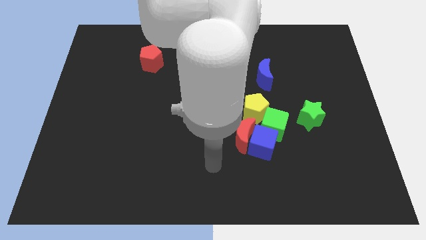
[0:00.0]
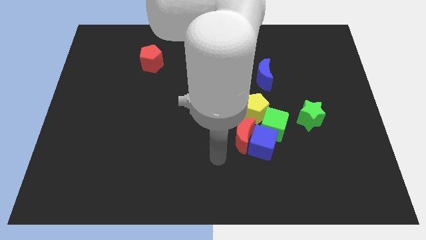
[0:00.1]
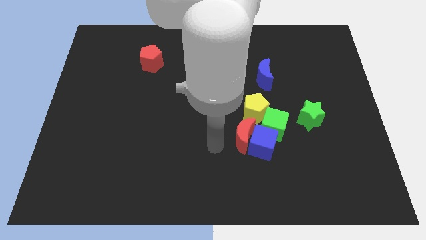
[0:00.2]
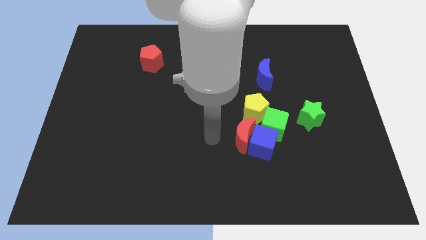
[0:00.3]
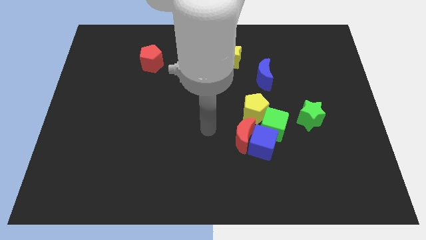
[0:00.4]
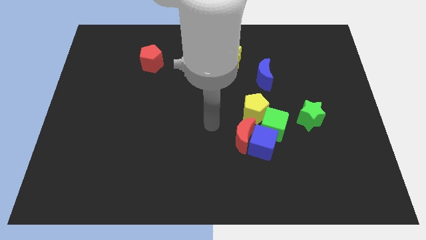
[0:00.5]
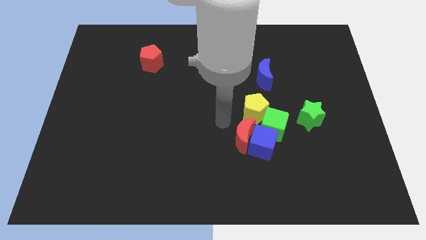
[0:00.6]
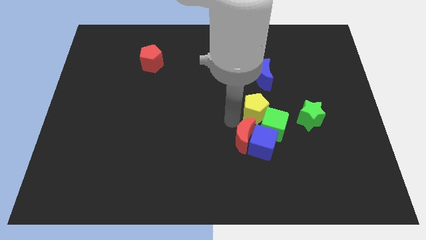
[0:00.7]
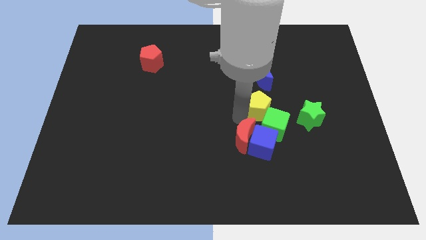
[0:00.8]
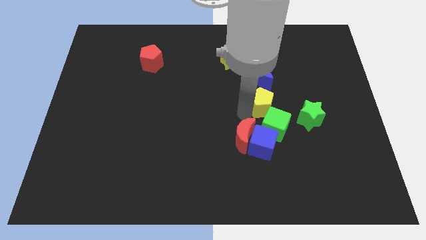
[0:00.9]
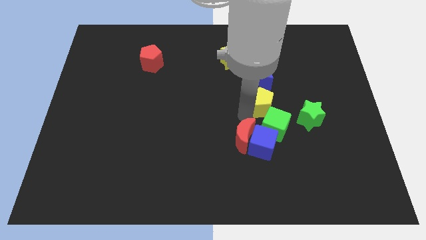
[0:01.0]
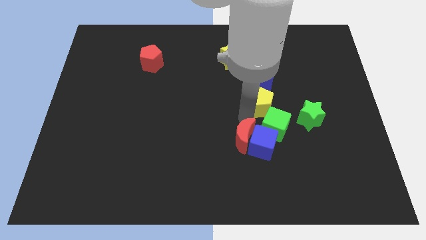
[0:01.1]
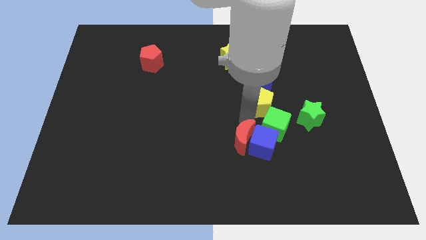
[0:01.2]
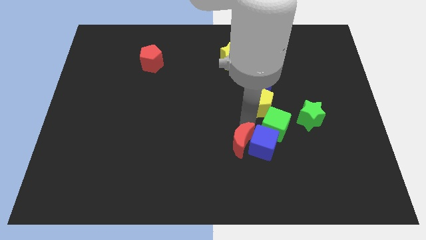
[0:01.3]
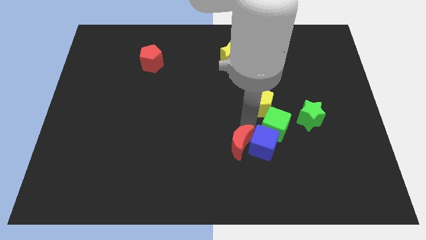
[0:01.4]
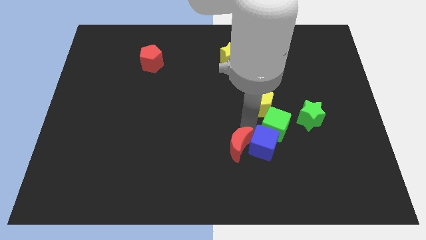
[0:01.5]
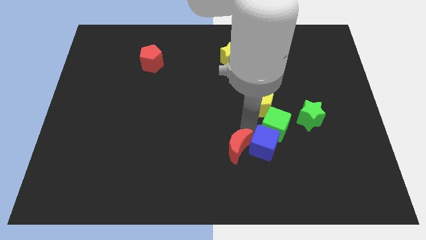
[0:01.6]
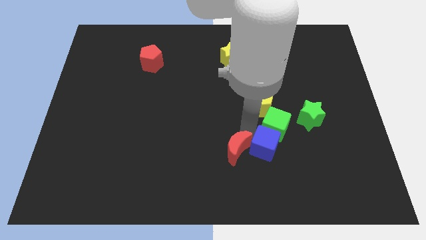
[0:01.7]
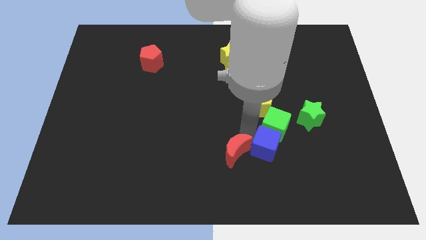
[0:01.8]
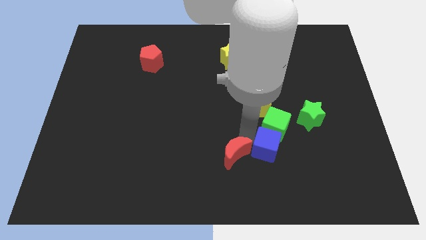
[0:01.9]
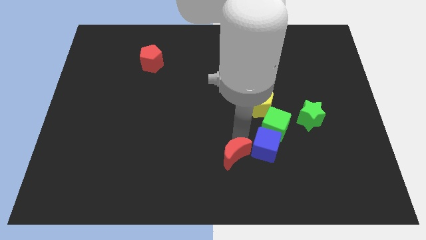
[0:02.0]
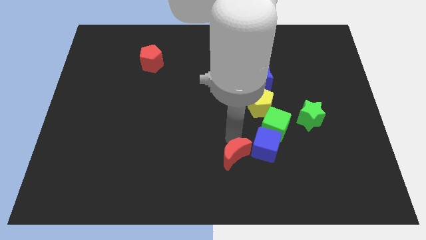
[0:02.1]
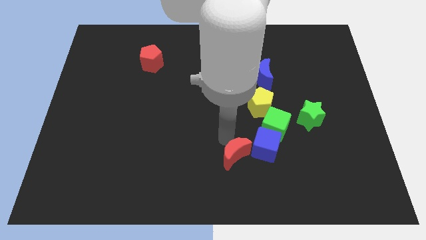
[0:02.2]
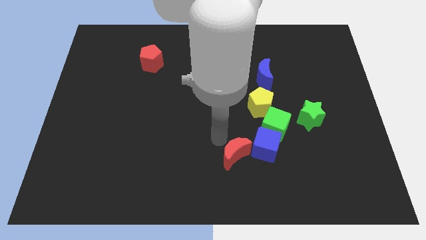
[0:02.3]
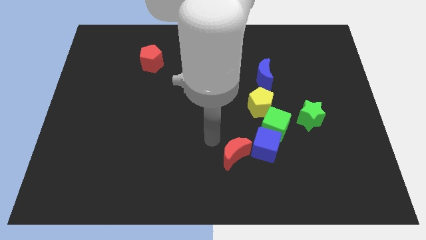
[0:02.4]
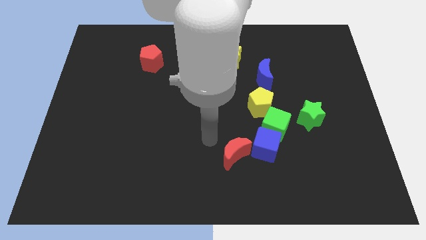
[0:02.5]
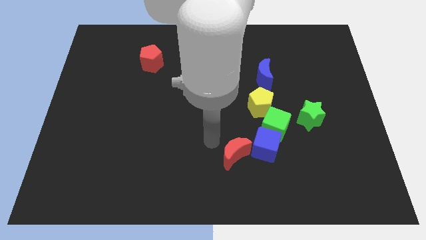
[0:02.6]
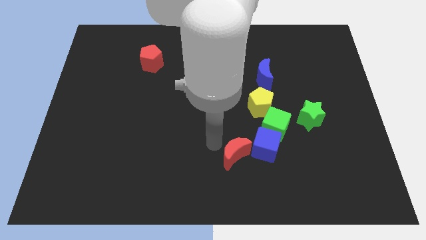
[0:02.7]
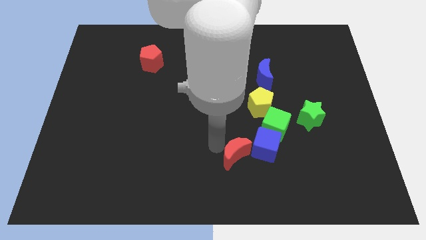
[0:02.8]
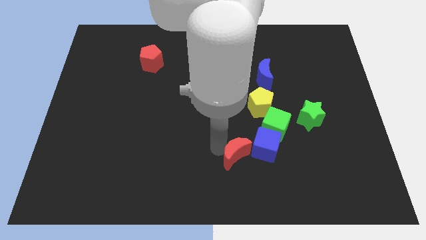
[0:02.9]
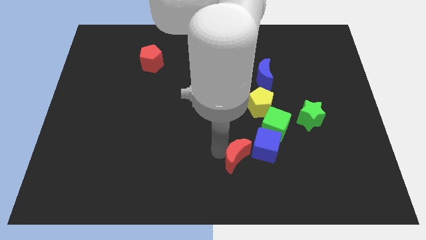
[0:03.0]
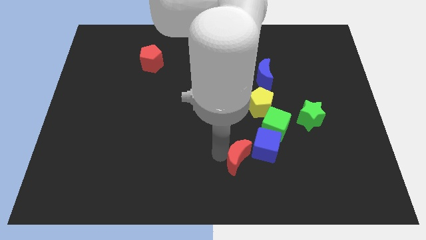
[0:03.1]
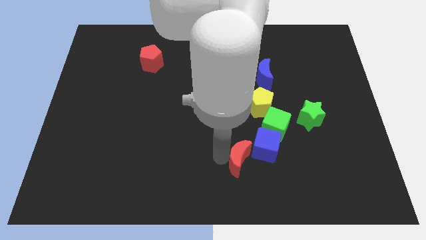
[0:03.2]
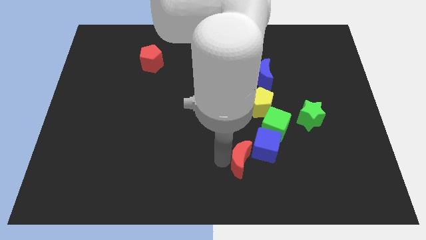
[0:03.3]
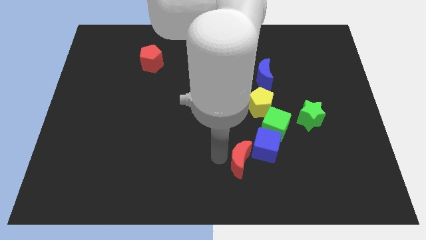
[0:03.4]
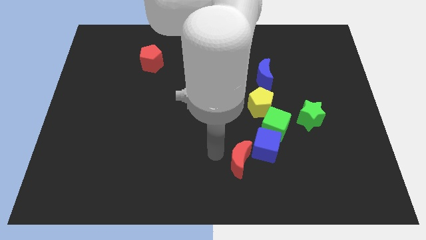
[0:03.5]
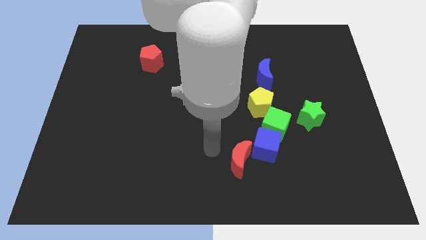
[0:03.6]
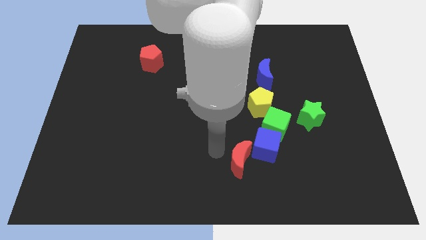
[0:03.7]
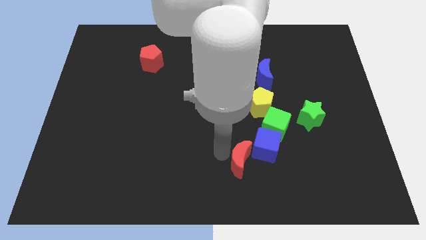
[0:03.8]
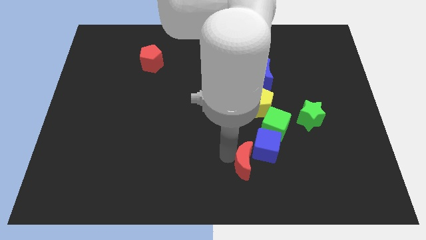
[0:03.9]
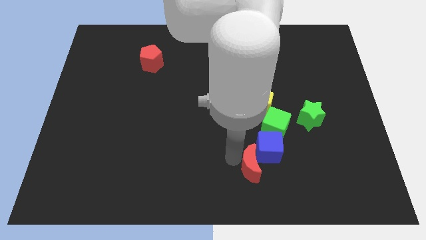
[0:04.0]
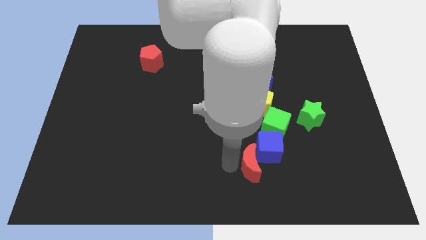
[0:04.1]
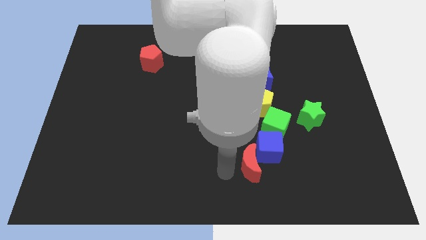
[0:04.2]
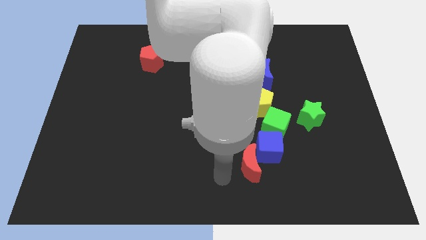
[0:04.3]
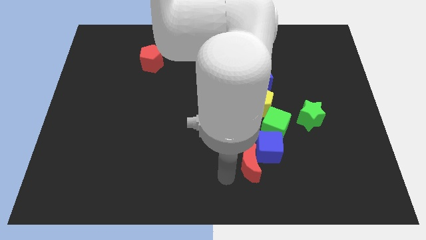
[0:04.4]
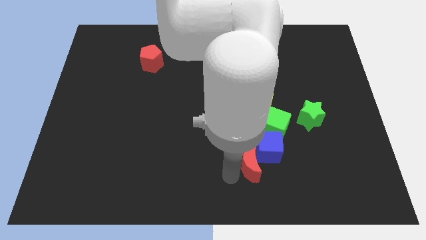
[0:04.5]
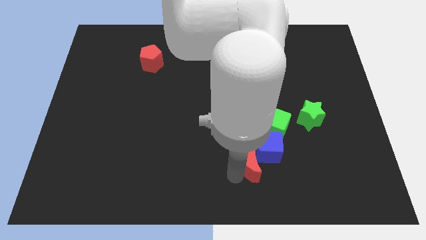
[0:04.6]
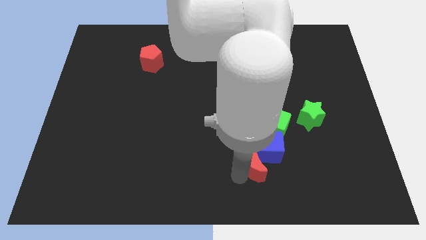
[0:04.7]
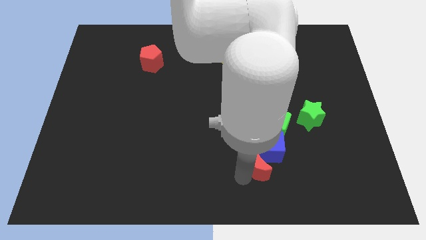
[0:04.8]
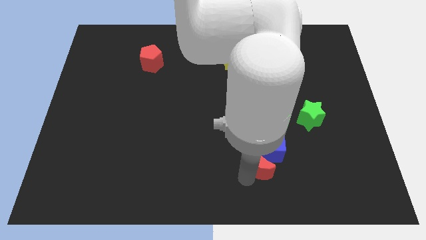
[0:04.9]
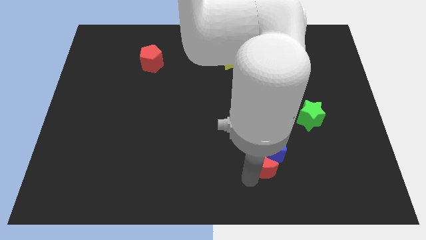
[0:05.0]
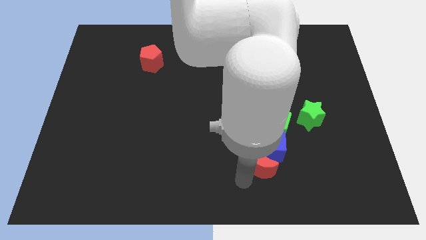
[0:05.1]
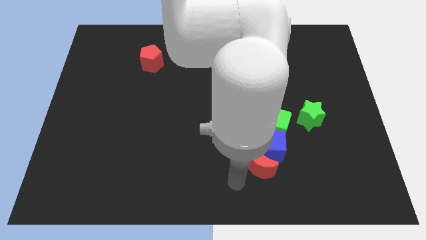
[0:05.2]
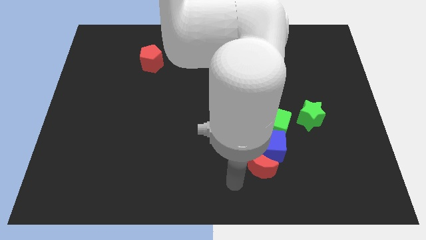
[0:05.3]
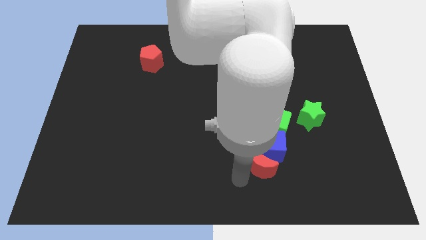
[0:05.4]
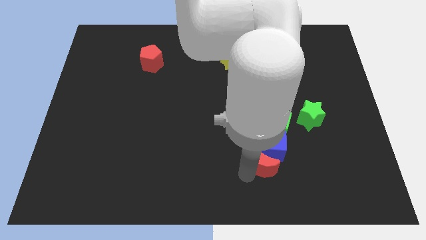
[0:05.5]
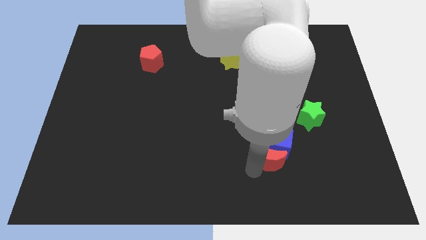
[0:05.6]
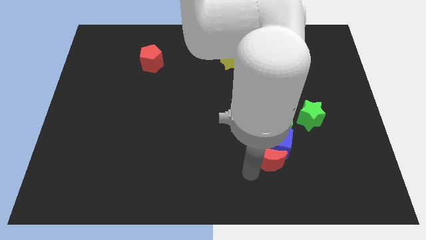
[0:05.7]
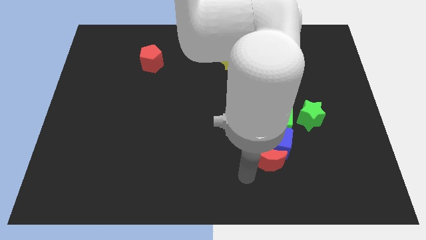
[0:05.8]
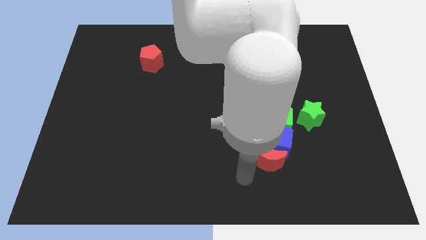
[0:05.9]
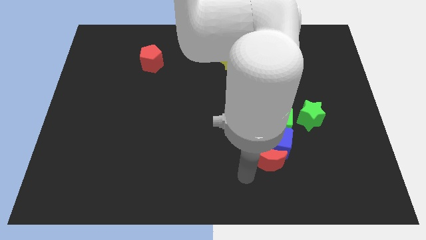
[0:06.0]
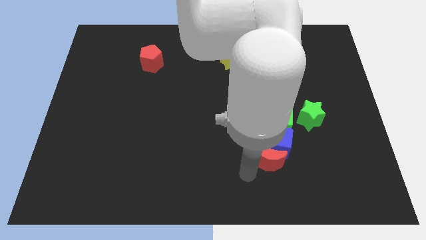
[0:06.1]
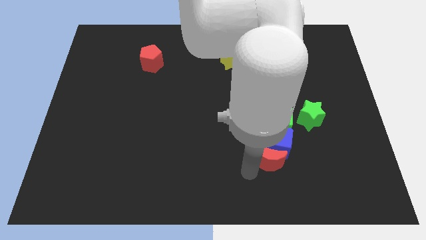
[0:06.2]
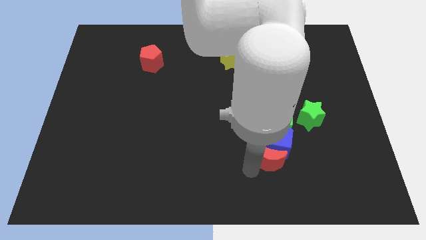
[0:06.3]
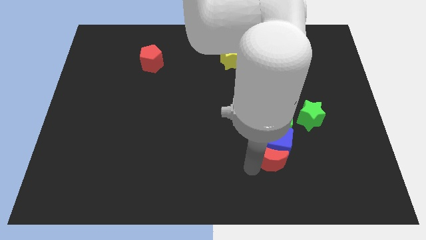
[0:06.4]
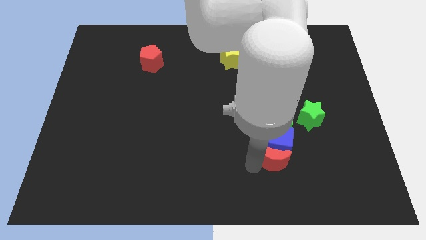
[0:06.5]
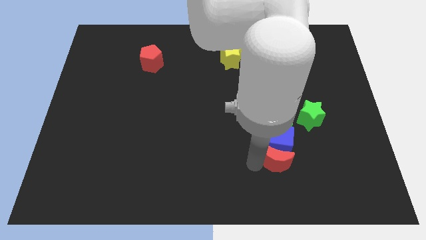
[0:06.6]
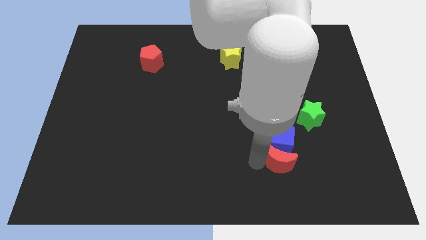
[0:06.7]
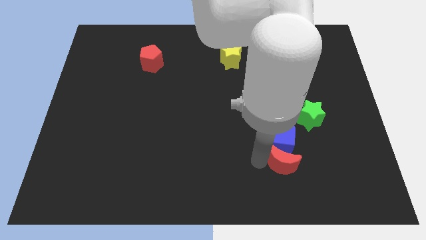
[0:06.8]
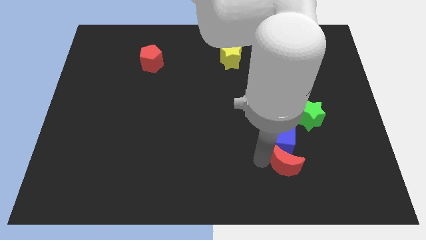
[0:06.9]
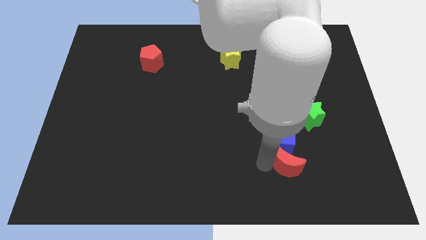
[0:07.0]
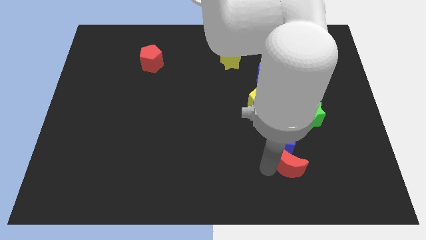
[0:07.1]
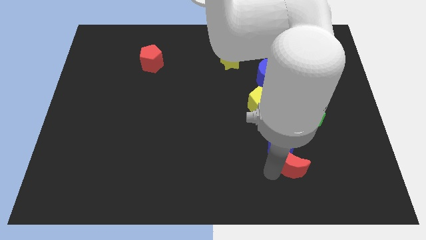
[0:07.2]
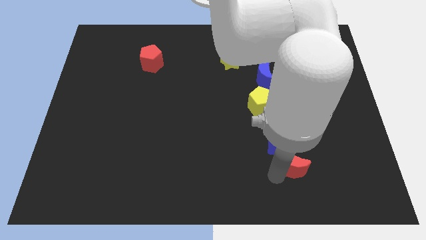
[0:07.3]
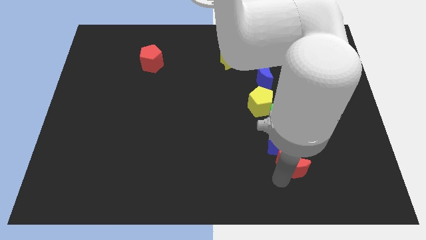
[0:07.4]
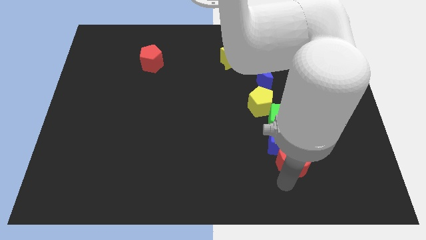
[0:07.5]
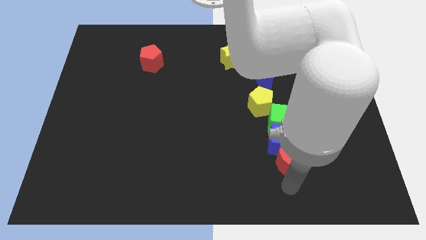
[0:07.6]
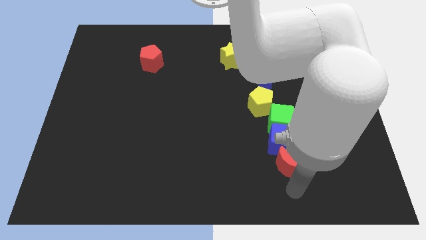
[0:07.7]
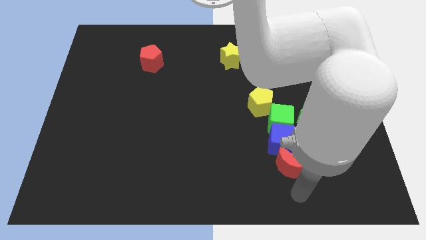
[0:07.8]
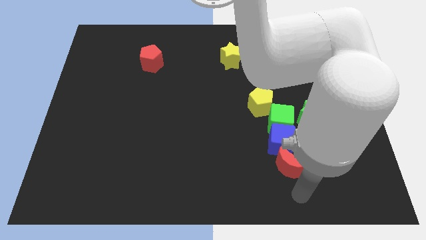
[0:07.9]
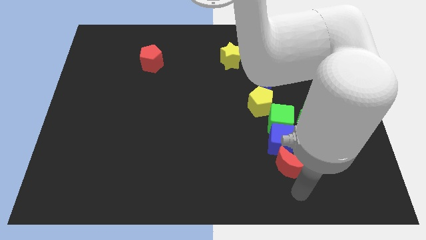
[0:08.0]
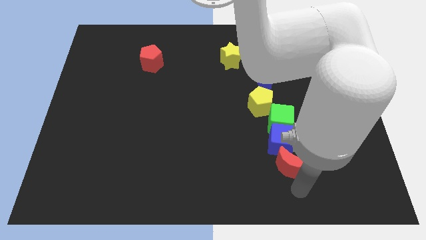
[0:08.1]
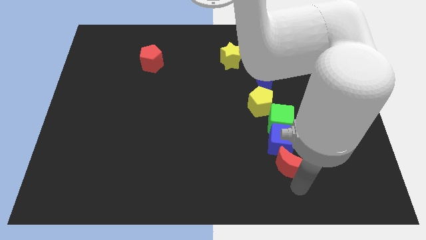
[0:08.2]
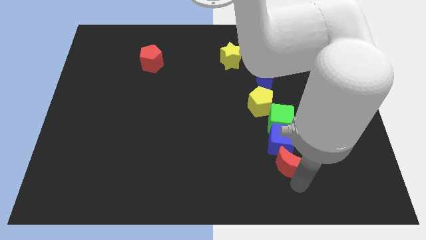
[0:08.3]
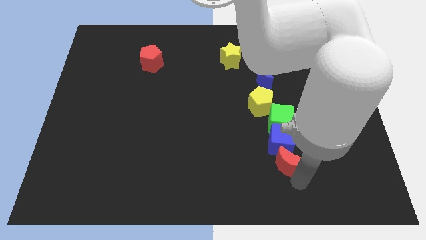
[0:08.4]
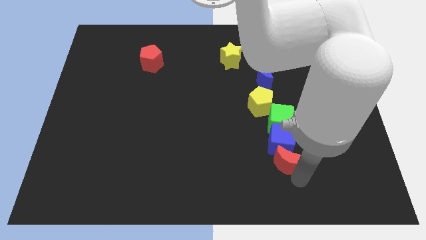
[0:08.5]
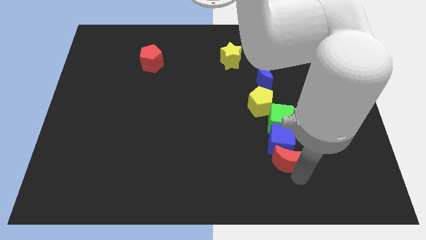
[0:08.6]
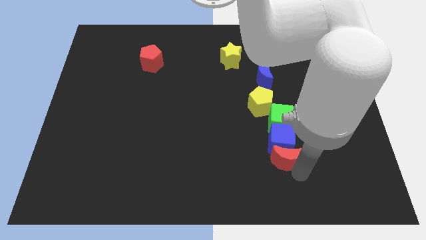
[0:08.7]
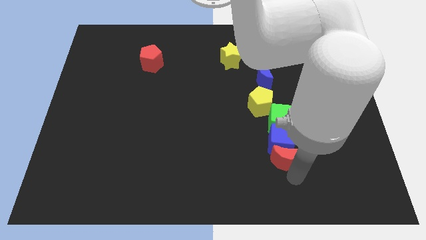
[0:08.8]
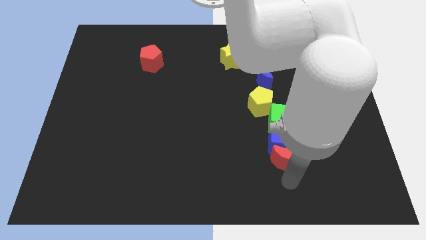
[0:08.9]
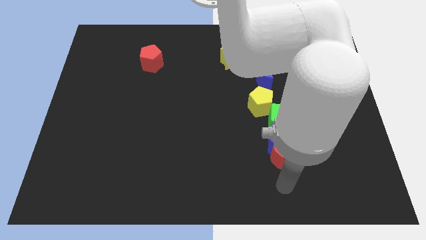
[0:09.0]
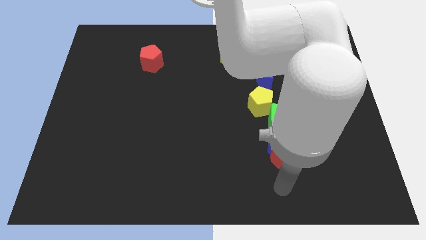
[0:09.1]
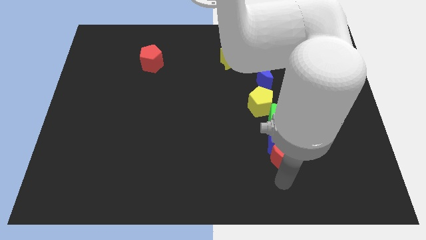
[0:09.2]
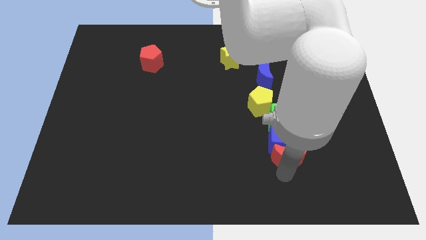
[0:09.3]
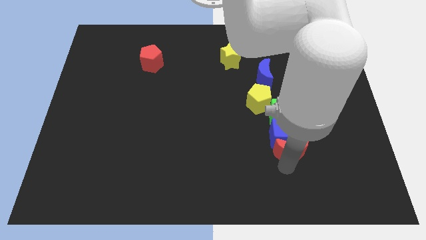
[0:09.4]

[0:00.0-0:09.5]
push the red moon to the bottom left of the green star
